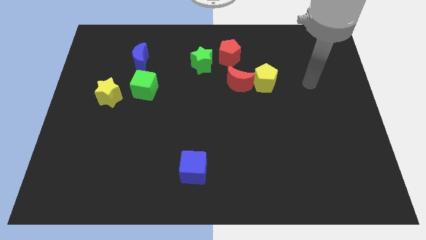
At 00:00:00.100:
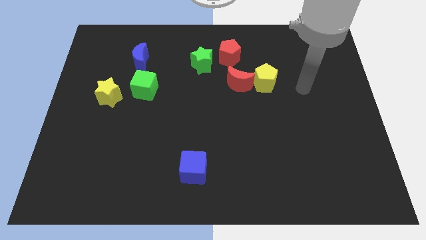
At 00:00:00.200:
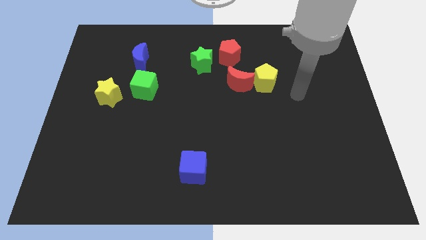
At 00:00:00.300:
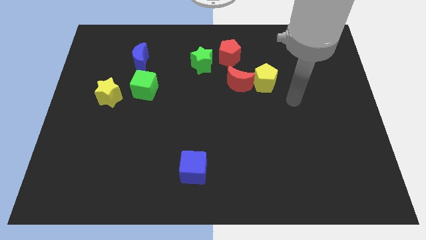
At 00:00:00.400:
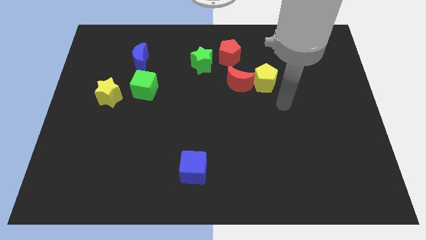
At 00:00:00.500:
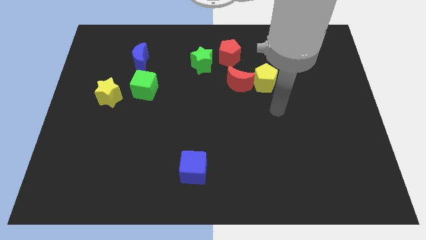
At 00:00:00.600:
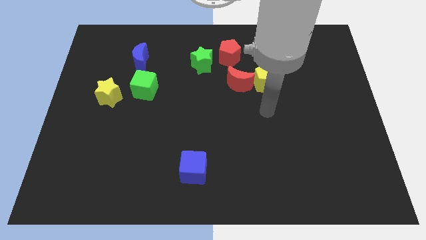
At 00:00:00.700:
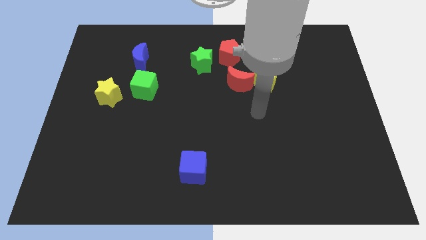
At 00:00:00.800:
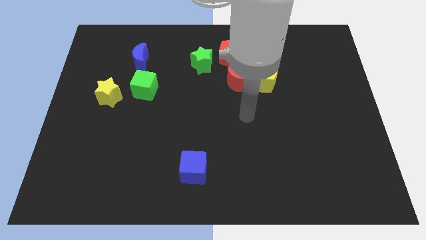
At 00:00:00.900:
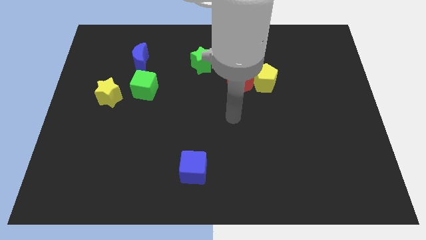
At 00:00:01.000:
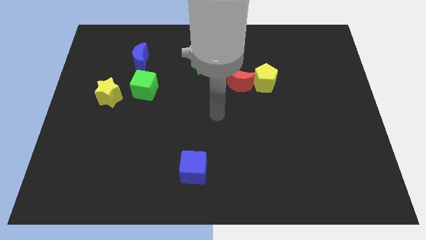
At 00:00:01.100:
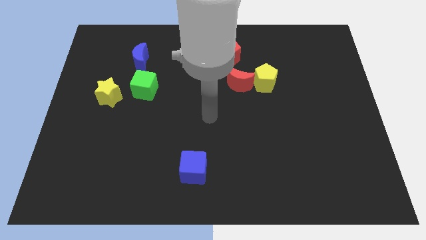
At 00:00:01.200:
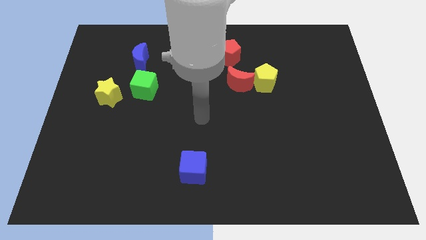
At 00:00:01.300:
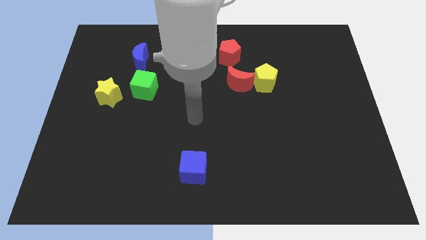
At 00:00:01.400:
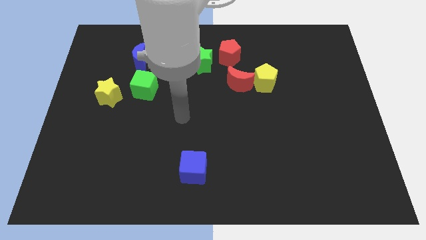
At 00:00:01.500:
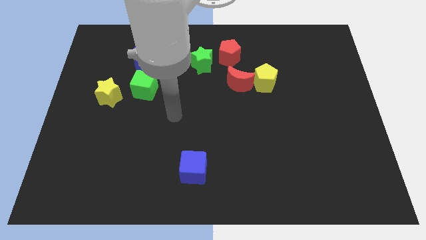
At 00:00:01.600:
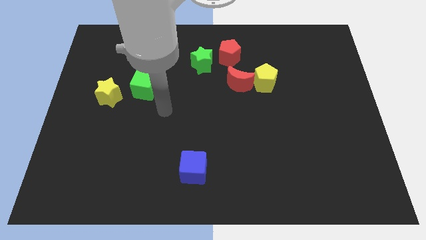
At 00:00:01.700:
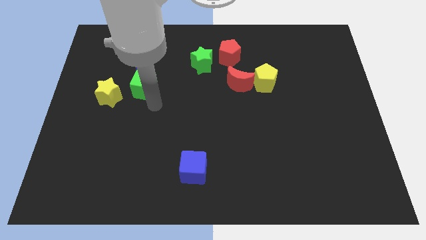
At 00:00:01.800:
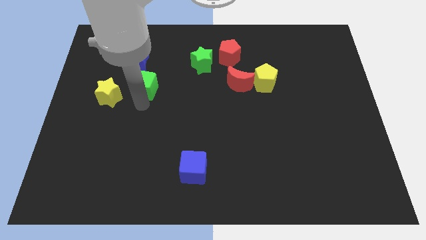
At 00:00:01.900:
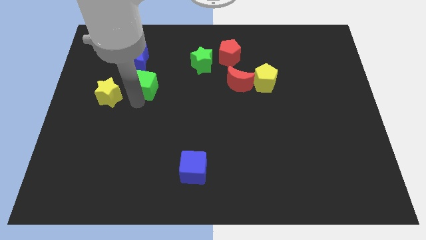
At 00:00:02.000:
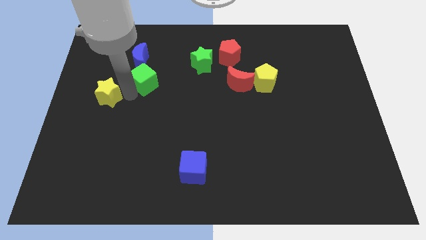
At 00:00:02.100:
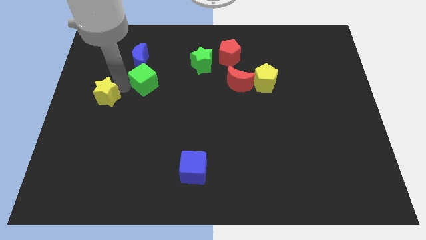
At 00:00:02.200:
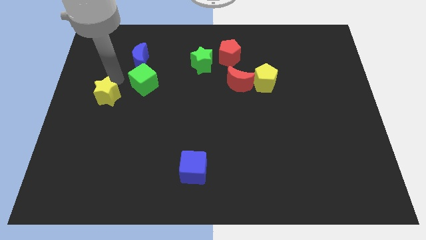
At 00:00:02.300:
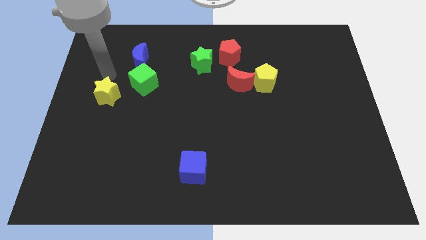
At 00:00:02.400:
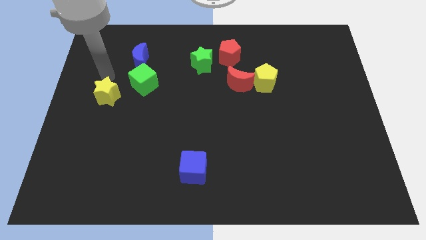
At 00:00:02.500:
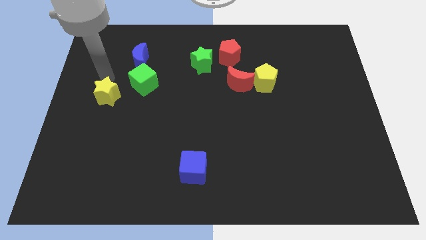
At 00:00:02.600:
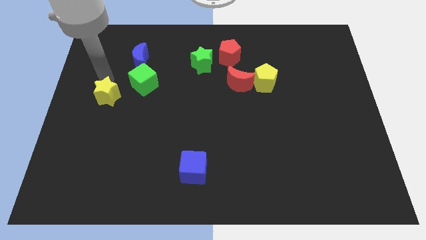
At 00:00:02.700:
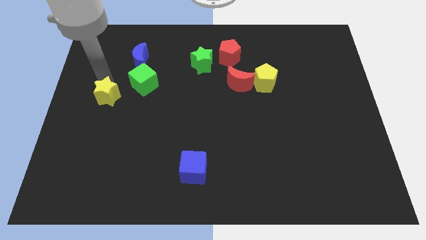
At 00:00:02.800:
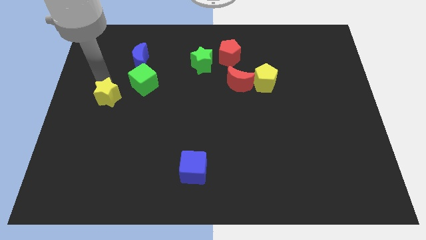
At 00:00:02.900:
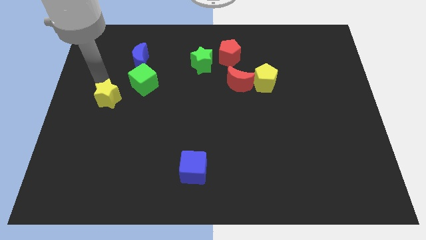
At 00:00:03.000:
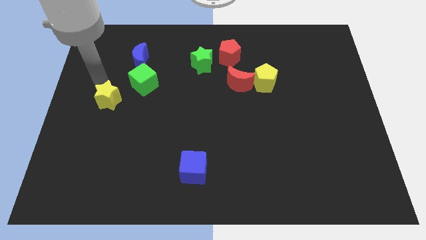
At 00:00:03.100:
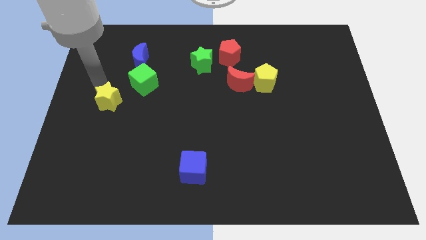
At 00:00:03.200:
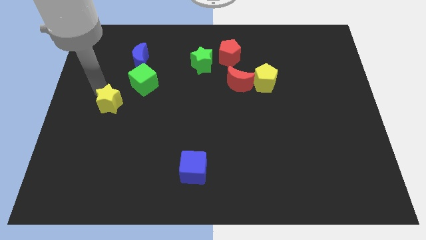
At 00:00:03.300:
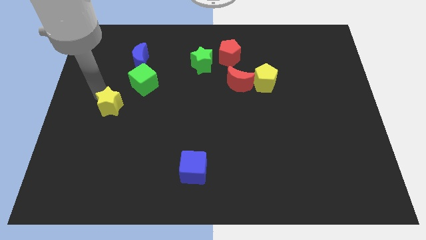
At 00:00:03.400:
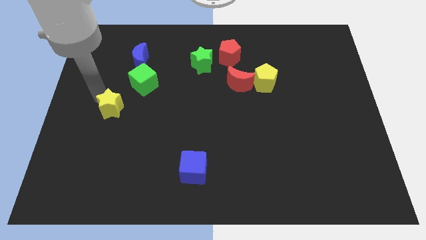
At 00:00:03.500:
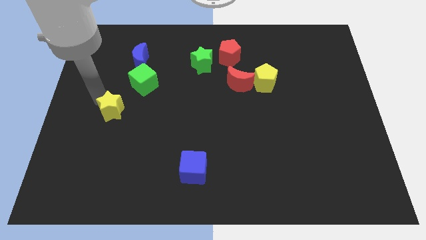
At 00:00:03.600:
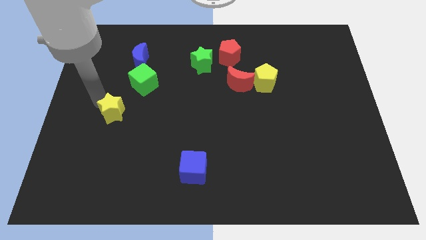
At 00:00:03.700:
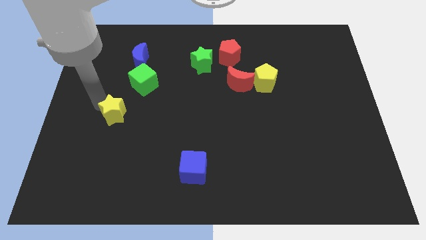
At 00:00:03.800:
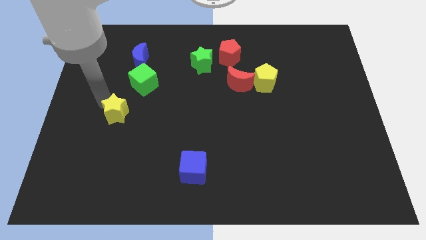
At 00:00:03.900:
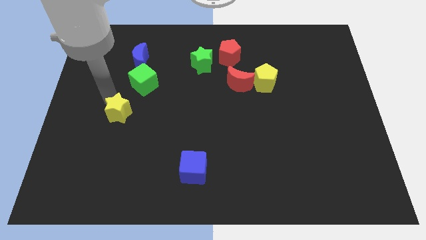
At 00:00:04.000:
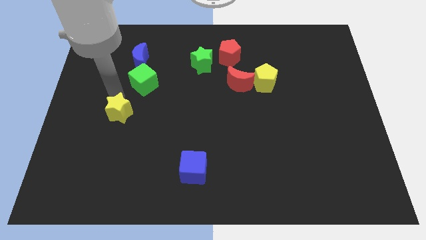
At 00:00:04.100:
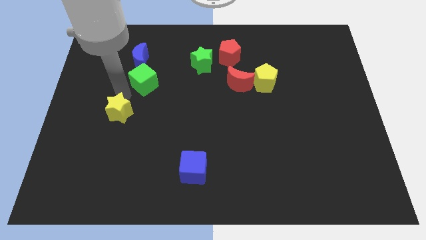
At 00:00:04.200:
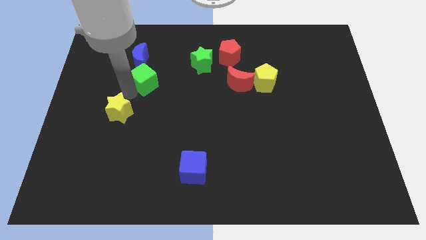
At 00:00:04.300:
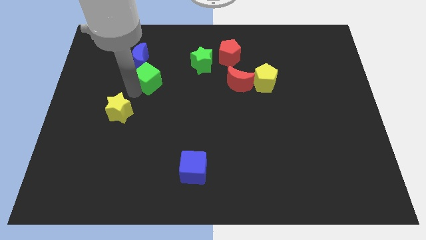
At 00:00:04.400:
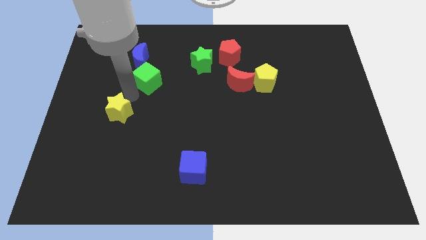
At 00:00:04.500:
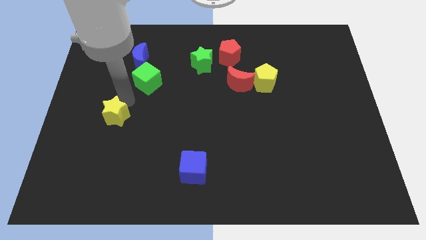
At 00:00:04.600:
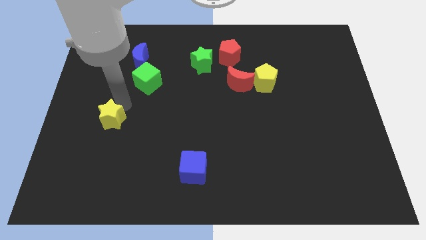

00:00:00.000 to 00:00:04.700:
move the yellow star downwards somewhat

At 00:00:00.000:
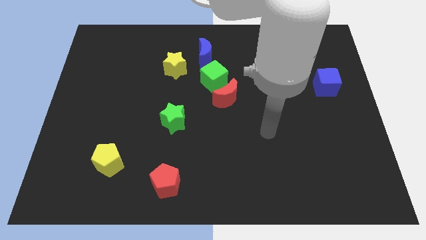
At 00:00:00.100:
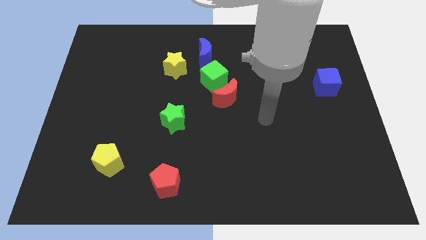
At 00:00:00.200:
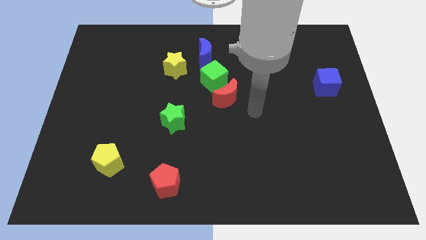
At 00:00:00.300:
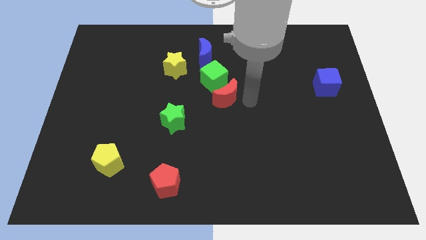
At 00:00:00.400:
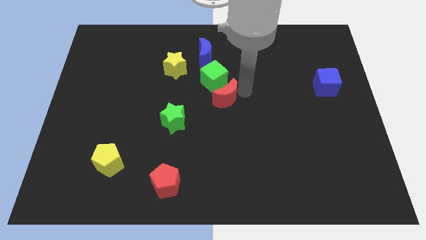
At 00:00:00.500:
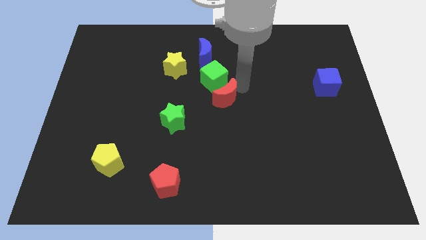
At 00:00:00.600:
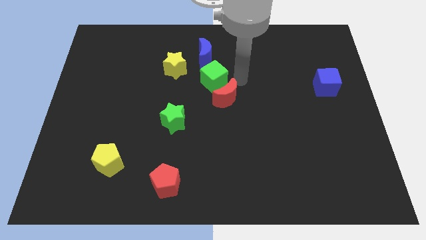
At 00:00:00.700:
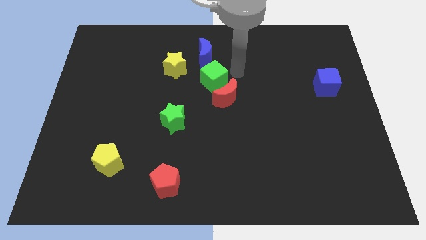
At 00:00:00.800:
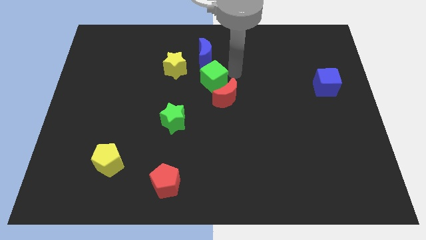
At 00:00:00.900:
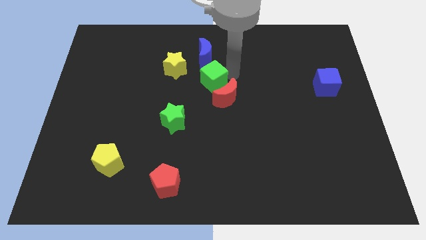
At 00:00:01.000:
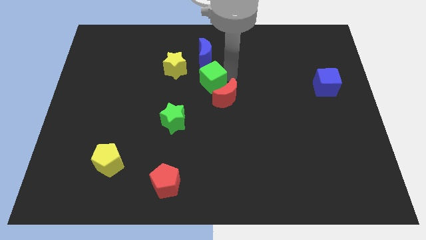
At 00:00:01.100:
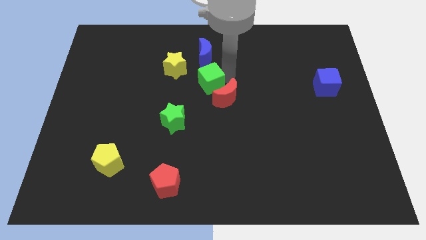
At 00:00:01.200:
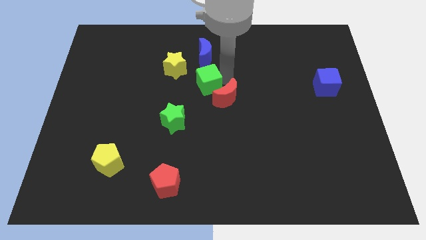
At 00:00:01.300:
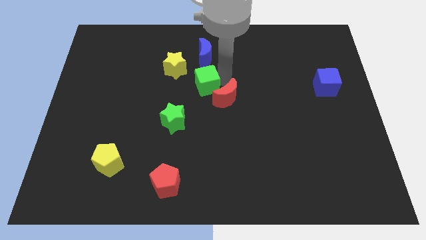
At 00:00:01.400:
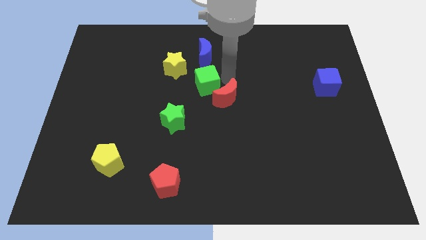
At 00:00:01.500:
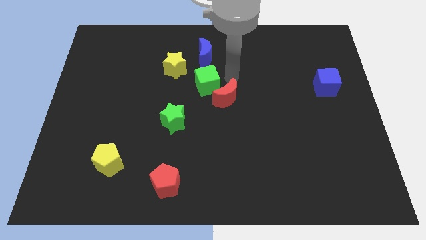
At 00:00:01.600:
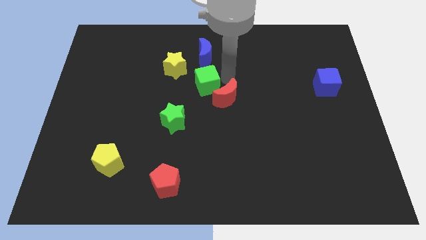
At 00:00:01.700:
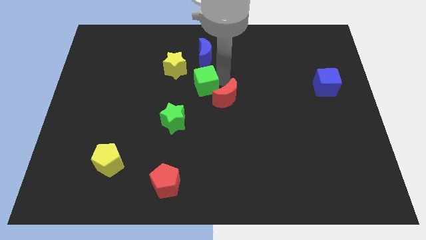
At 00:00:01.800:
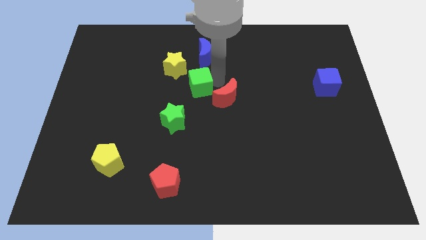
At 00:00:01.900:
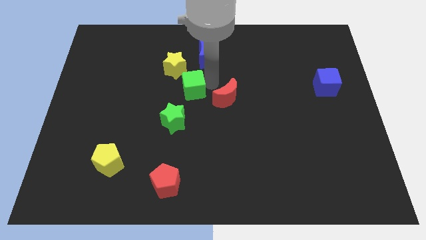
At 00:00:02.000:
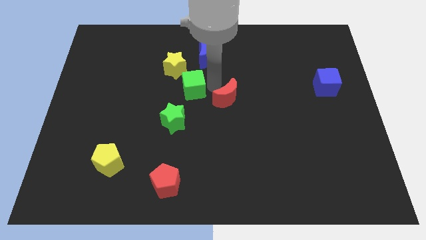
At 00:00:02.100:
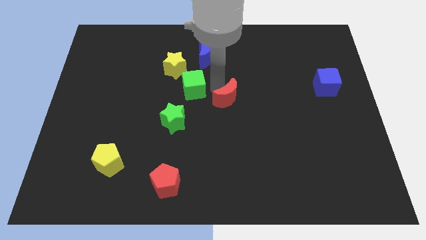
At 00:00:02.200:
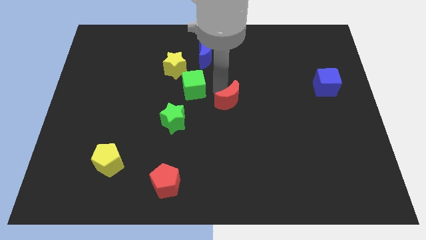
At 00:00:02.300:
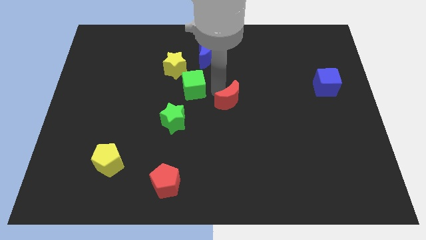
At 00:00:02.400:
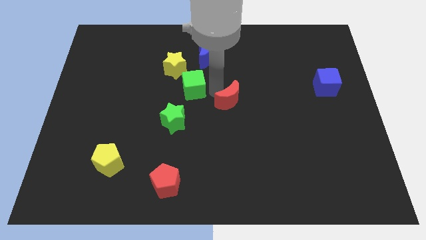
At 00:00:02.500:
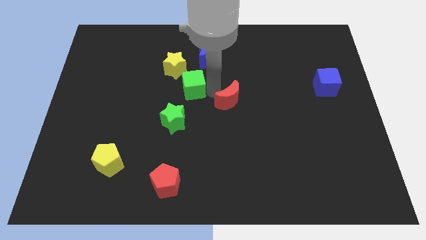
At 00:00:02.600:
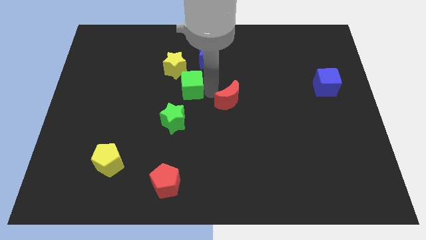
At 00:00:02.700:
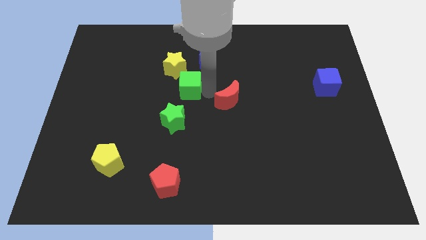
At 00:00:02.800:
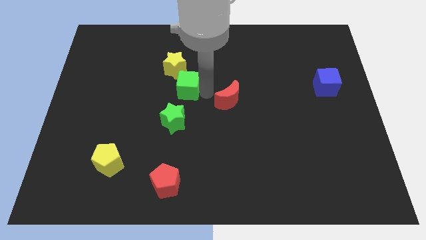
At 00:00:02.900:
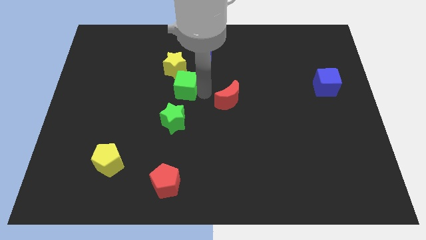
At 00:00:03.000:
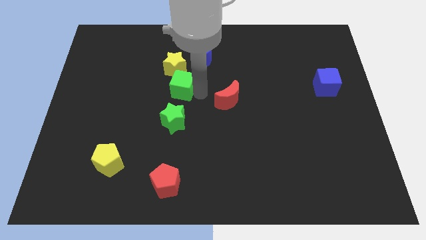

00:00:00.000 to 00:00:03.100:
push the green cube left slightly
